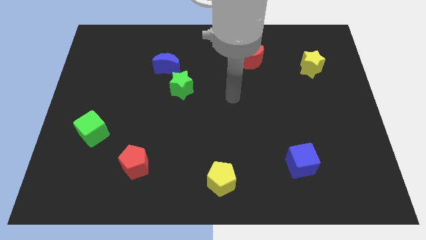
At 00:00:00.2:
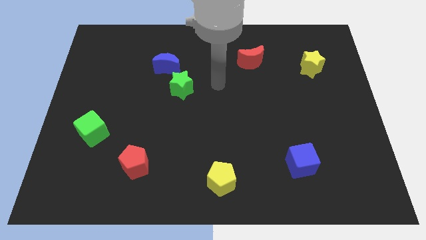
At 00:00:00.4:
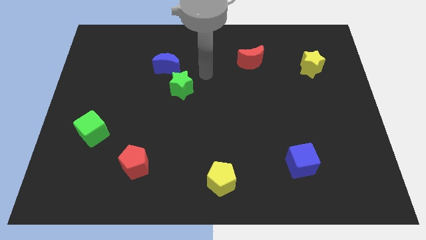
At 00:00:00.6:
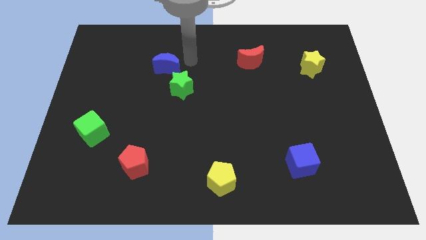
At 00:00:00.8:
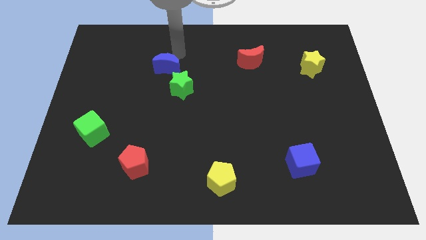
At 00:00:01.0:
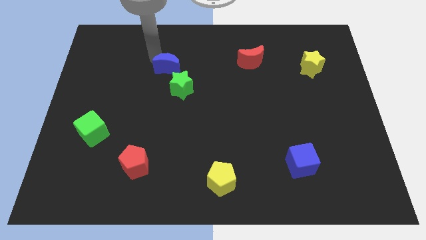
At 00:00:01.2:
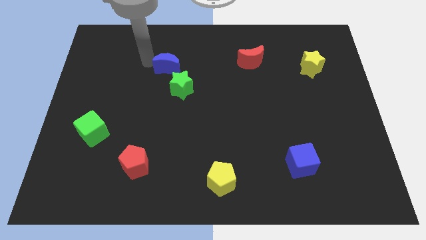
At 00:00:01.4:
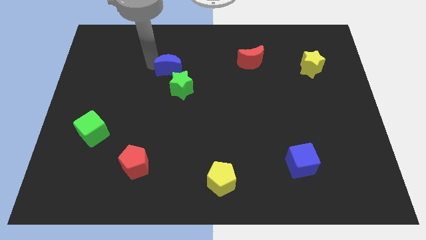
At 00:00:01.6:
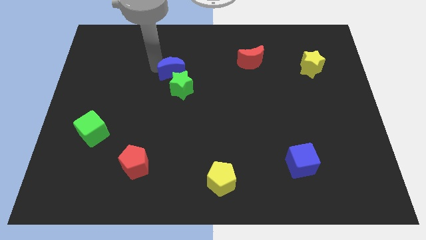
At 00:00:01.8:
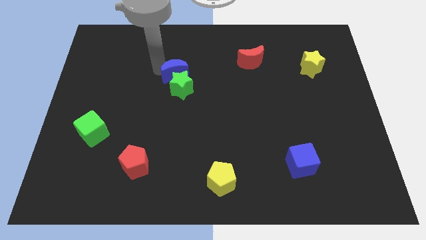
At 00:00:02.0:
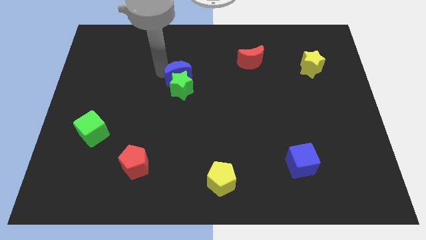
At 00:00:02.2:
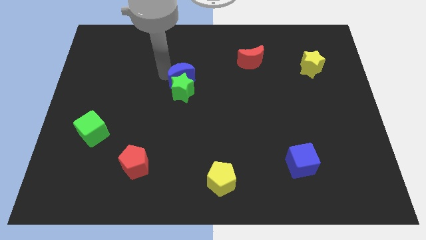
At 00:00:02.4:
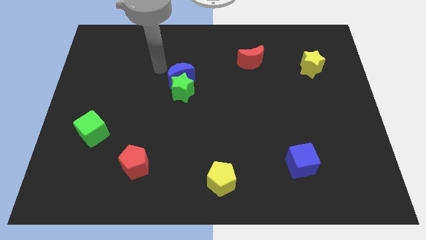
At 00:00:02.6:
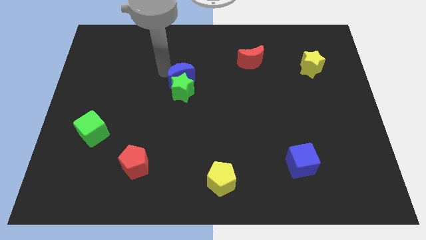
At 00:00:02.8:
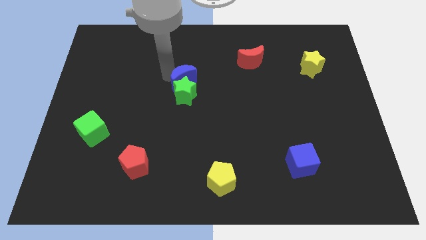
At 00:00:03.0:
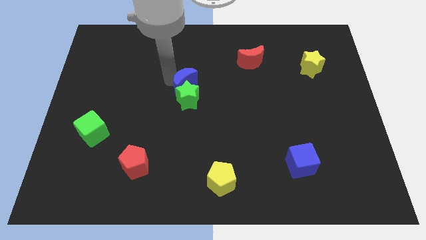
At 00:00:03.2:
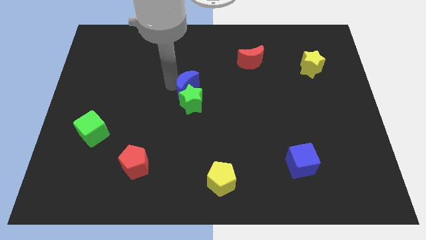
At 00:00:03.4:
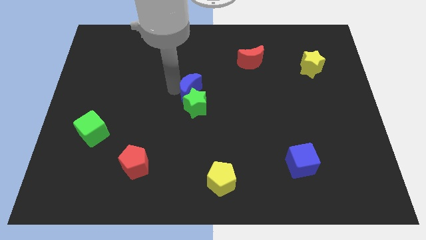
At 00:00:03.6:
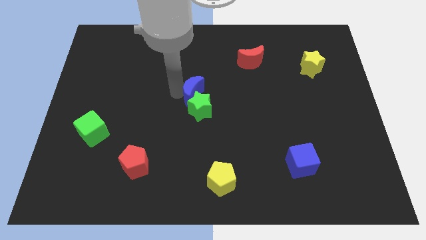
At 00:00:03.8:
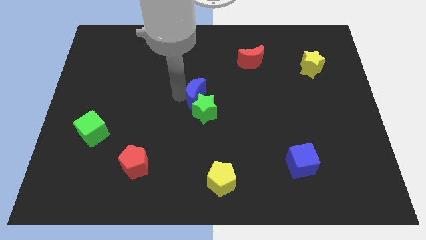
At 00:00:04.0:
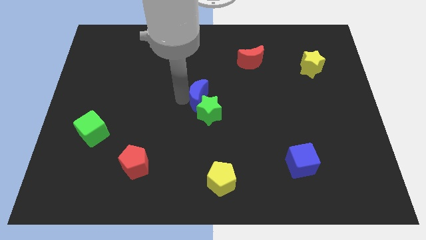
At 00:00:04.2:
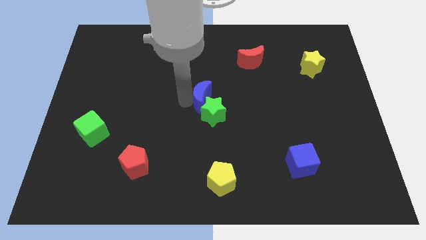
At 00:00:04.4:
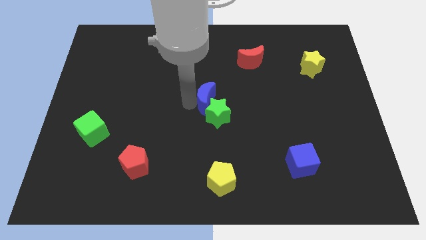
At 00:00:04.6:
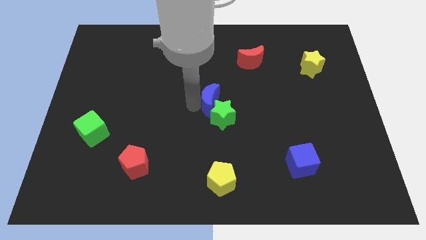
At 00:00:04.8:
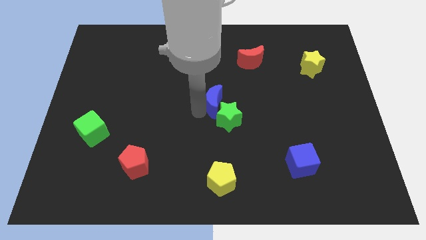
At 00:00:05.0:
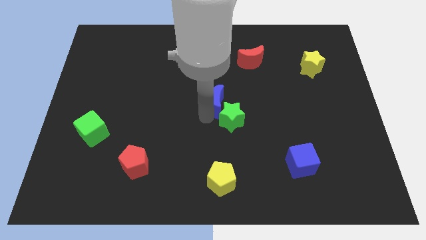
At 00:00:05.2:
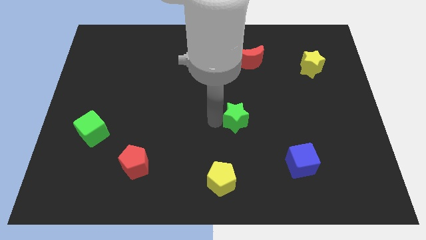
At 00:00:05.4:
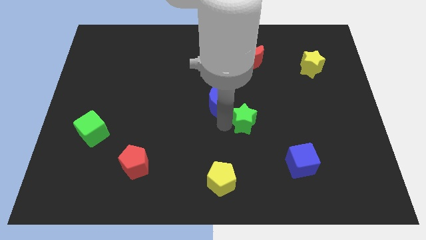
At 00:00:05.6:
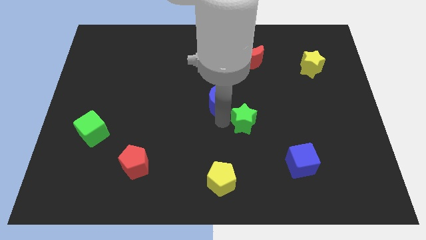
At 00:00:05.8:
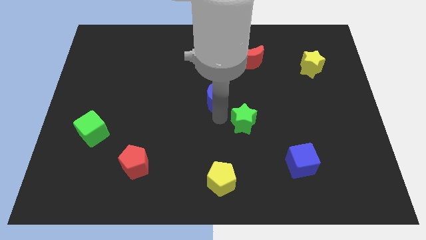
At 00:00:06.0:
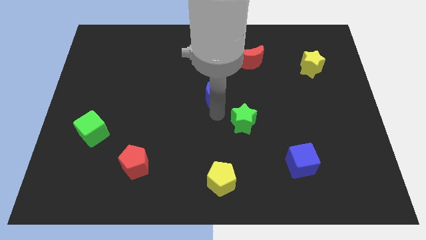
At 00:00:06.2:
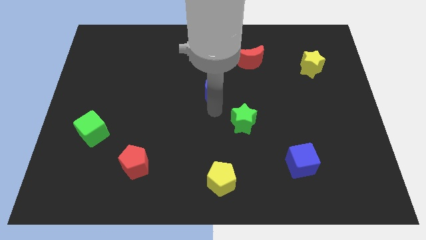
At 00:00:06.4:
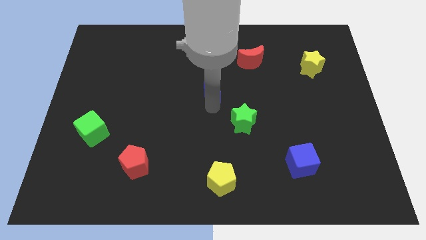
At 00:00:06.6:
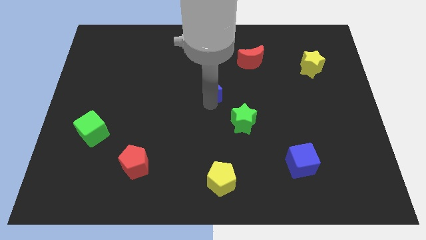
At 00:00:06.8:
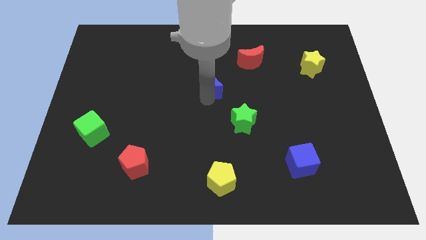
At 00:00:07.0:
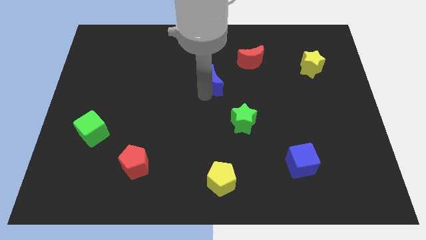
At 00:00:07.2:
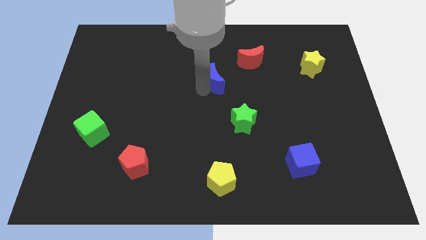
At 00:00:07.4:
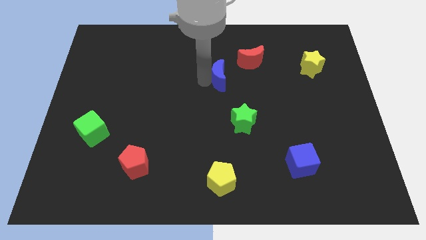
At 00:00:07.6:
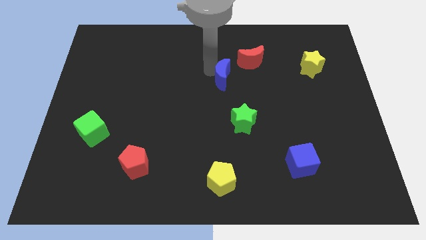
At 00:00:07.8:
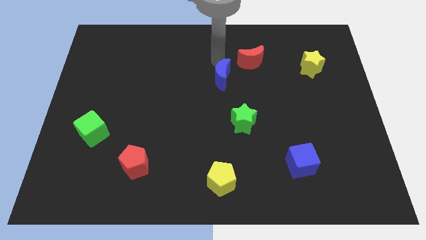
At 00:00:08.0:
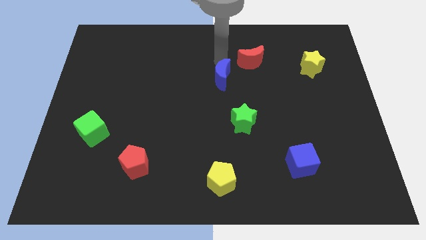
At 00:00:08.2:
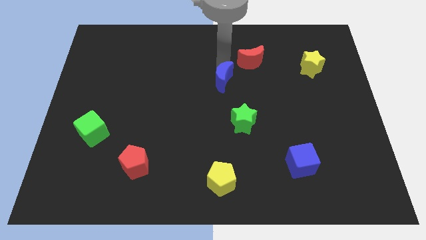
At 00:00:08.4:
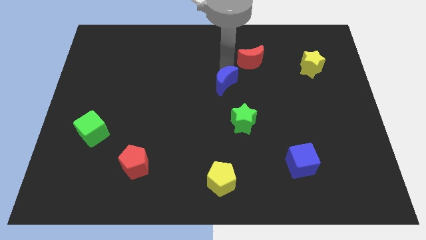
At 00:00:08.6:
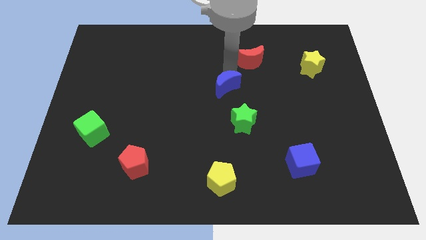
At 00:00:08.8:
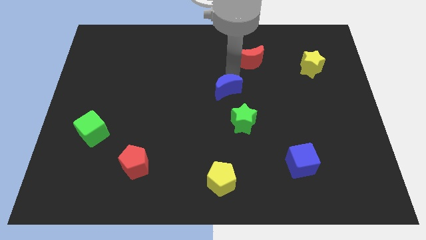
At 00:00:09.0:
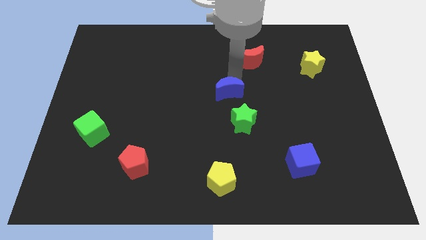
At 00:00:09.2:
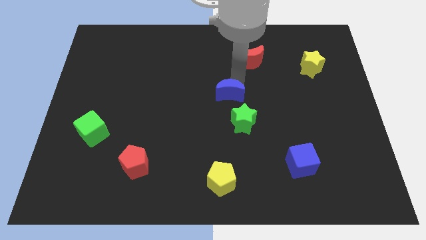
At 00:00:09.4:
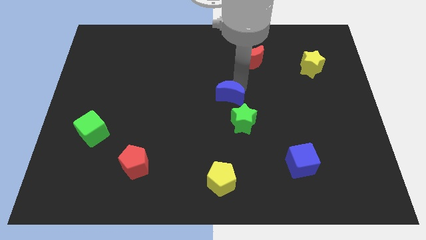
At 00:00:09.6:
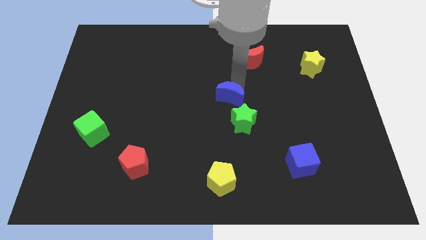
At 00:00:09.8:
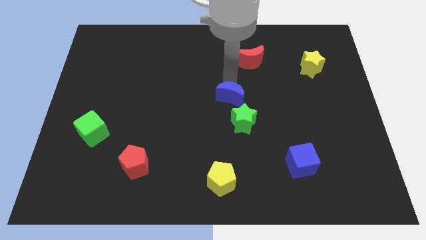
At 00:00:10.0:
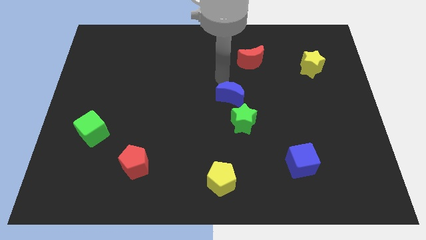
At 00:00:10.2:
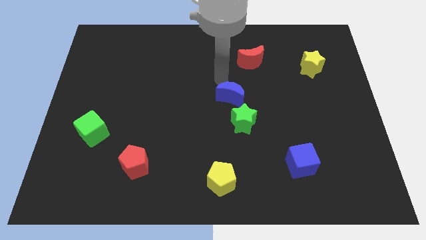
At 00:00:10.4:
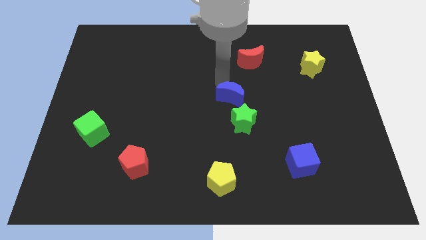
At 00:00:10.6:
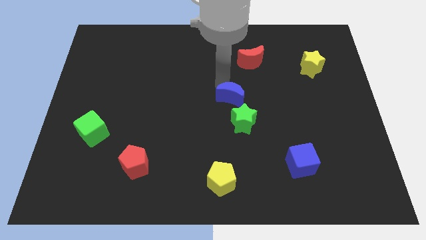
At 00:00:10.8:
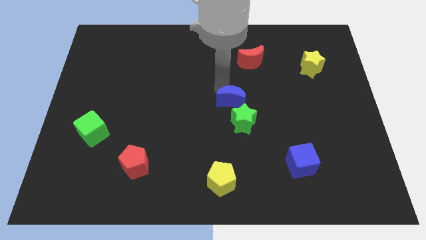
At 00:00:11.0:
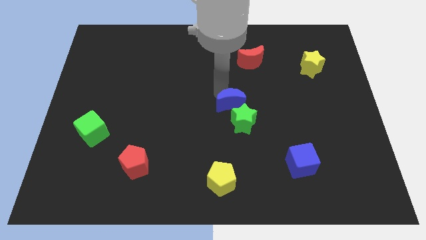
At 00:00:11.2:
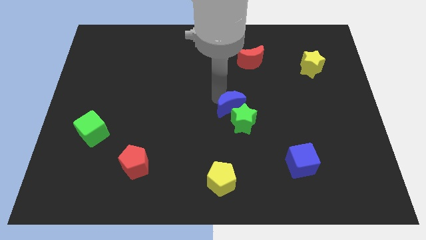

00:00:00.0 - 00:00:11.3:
push the blue moon downwards and right diagonally

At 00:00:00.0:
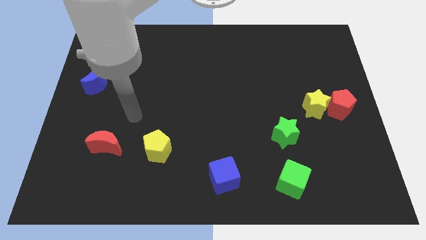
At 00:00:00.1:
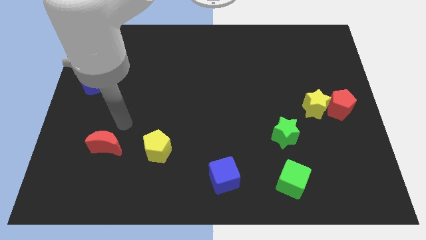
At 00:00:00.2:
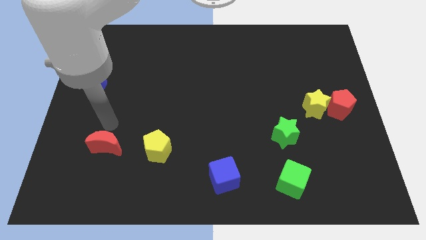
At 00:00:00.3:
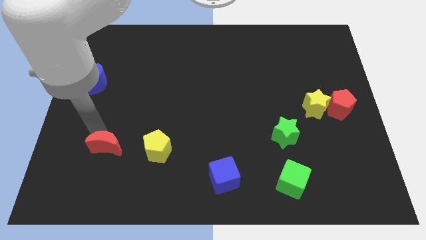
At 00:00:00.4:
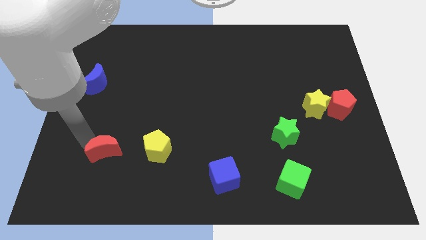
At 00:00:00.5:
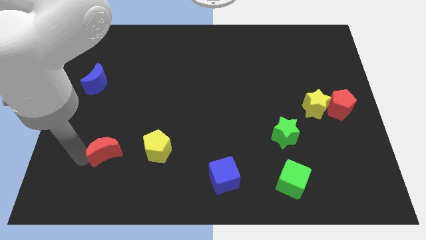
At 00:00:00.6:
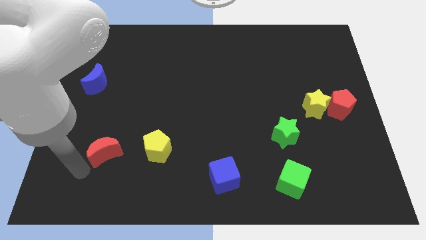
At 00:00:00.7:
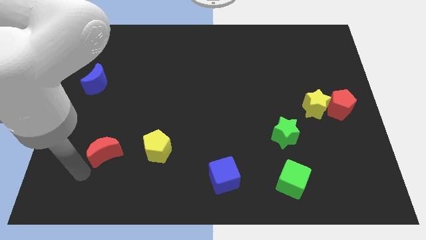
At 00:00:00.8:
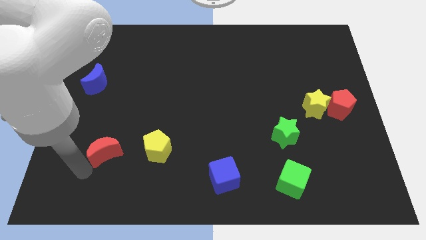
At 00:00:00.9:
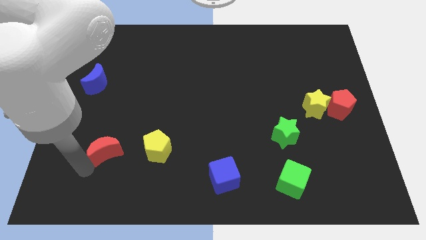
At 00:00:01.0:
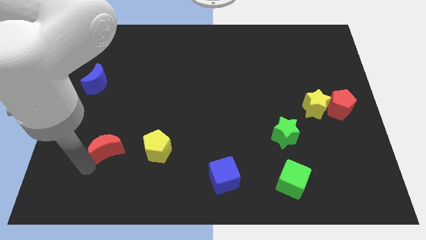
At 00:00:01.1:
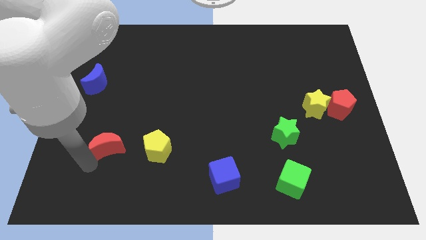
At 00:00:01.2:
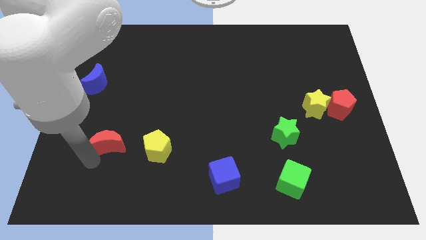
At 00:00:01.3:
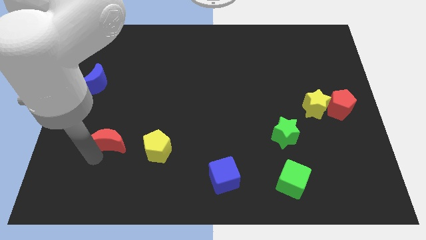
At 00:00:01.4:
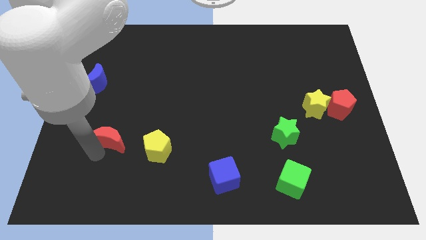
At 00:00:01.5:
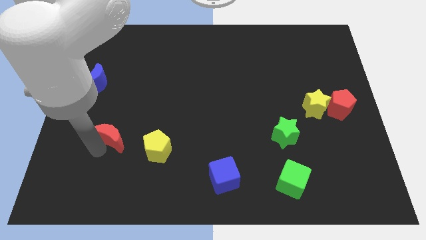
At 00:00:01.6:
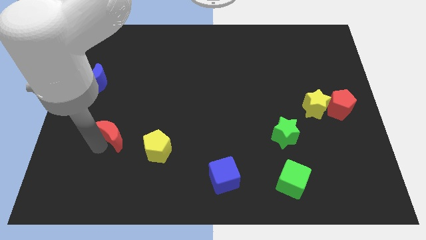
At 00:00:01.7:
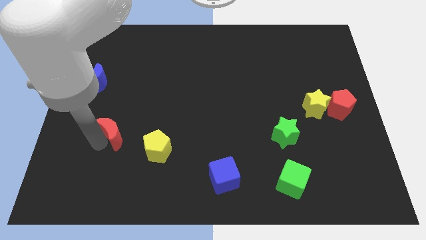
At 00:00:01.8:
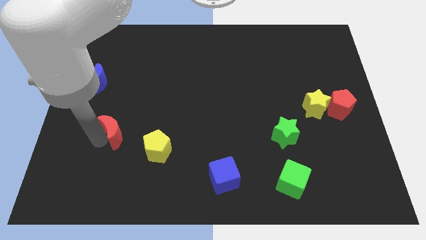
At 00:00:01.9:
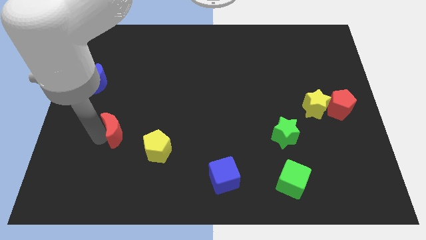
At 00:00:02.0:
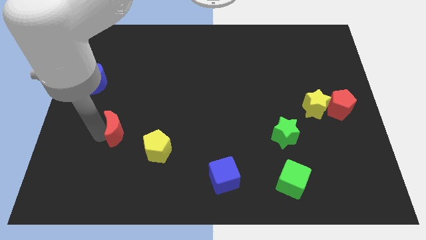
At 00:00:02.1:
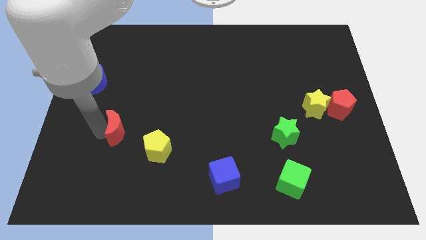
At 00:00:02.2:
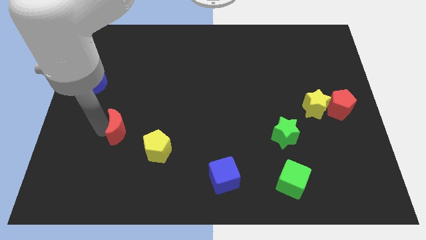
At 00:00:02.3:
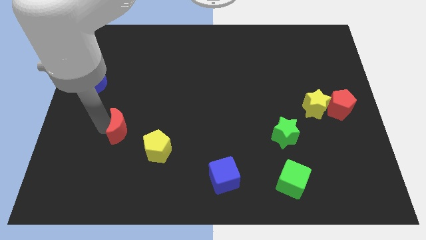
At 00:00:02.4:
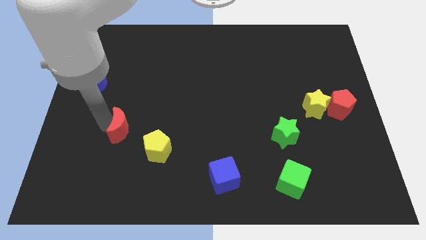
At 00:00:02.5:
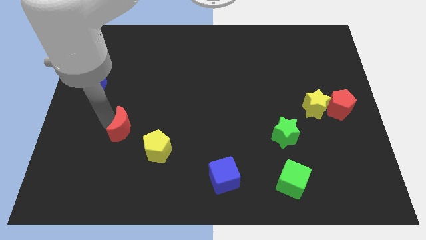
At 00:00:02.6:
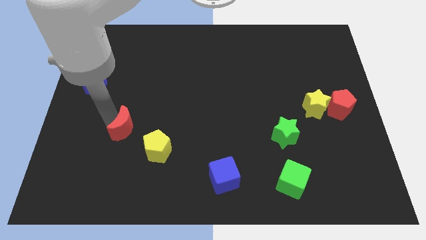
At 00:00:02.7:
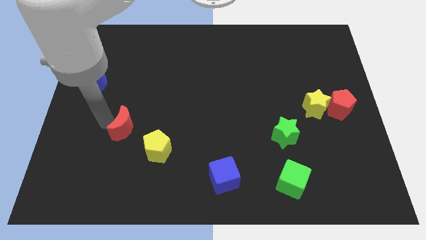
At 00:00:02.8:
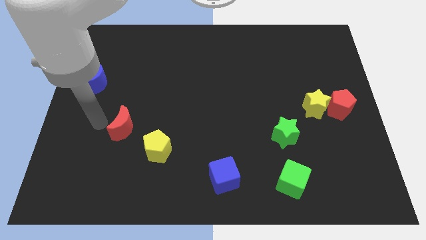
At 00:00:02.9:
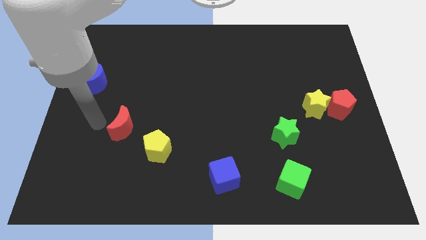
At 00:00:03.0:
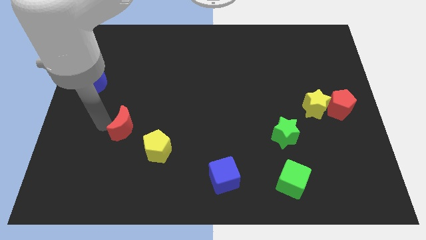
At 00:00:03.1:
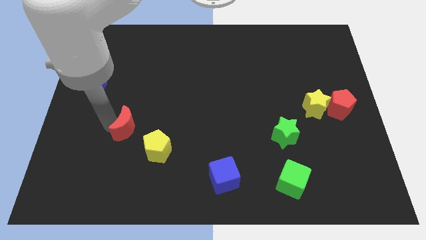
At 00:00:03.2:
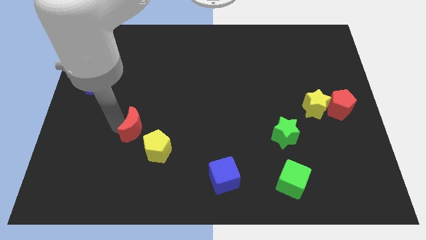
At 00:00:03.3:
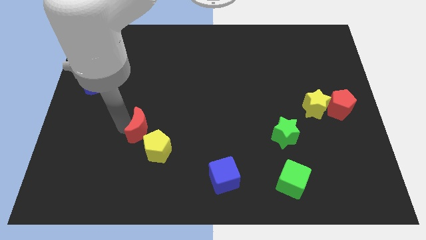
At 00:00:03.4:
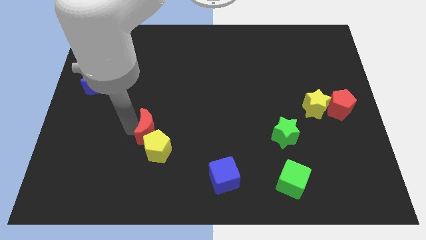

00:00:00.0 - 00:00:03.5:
move the red moon slightly right
